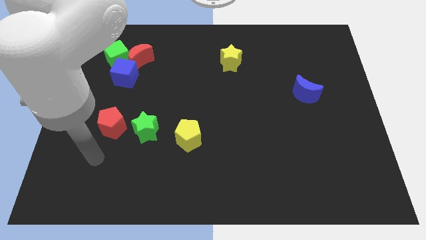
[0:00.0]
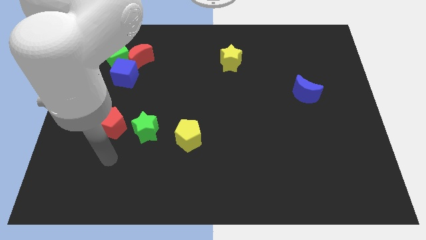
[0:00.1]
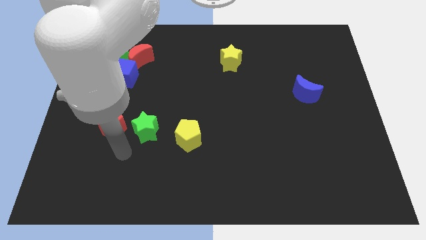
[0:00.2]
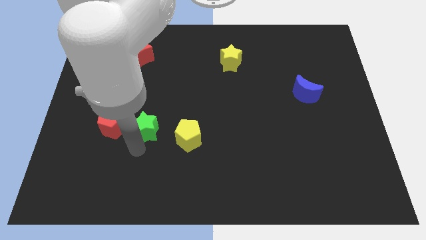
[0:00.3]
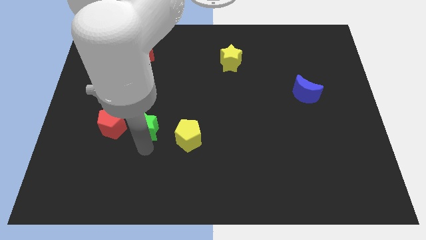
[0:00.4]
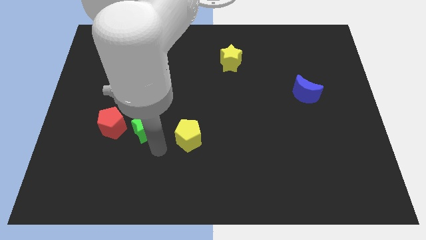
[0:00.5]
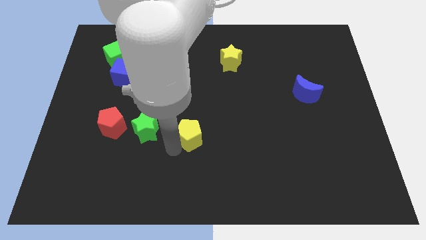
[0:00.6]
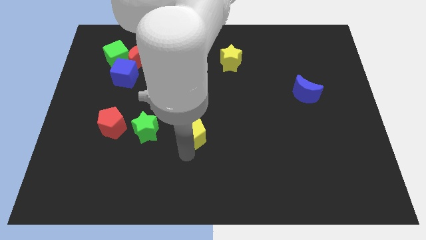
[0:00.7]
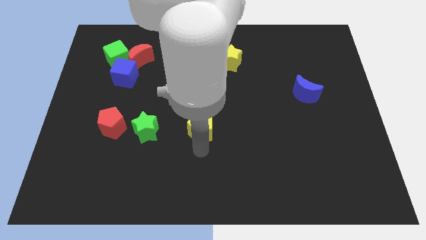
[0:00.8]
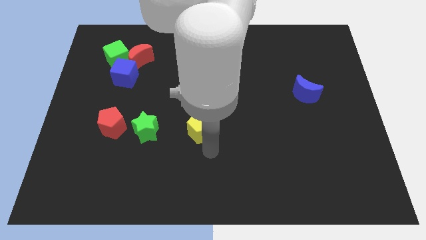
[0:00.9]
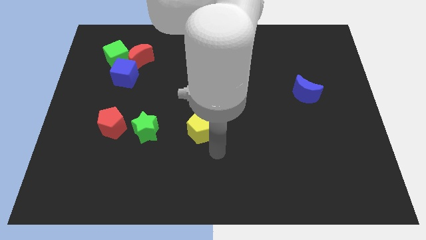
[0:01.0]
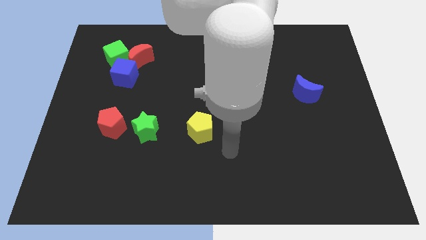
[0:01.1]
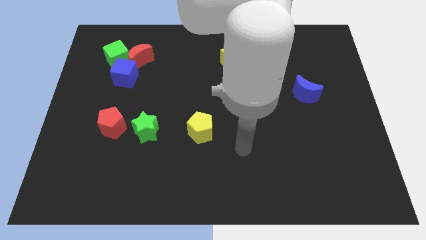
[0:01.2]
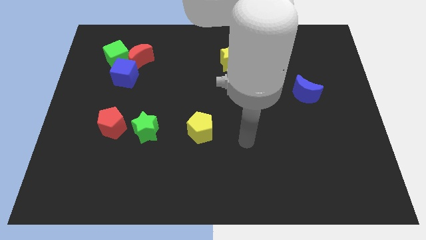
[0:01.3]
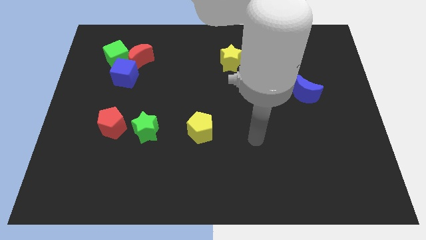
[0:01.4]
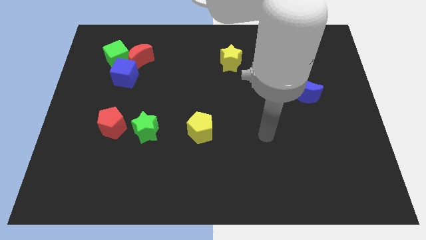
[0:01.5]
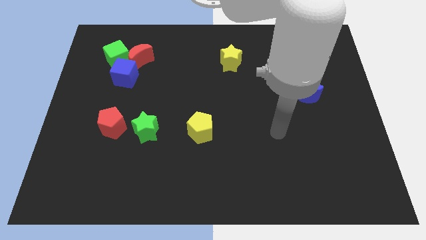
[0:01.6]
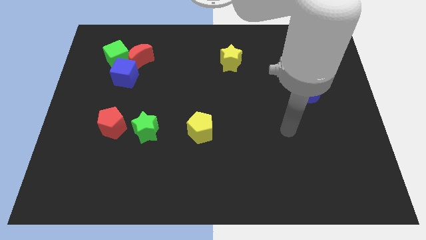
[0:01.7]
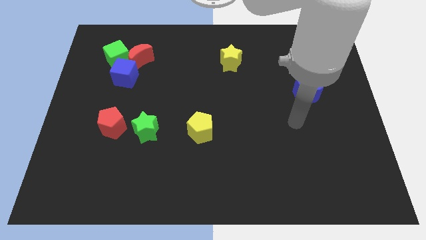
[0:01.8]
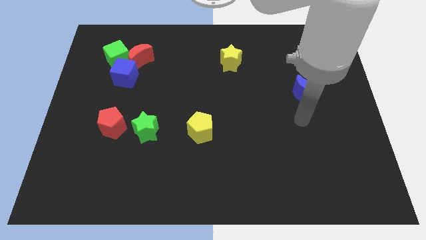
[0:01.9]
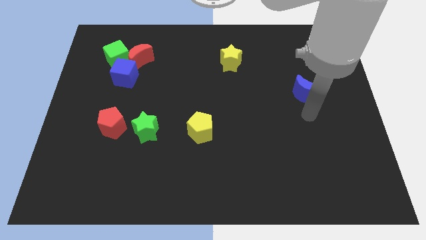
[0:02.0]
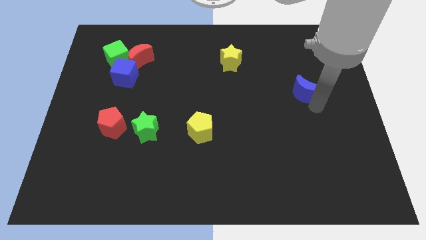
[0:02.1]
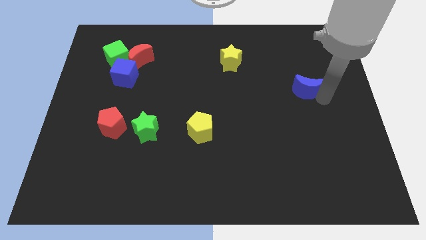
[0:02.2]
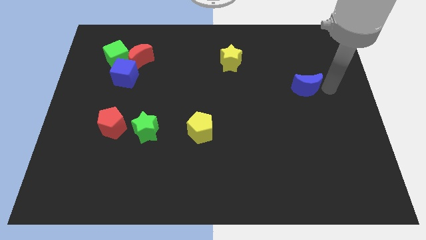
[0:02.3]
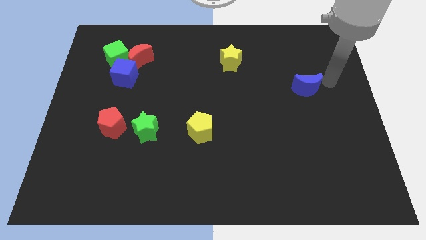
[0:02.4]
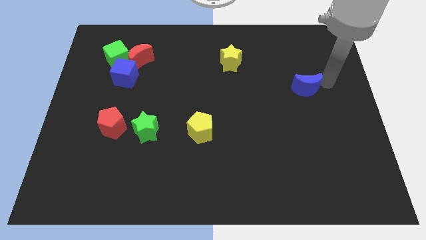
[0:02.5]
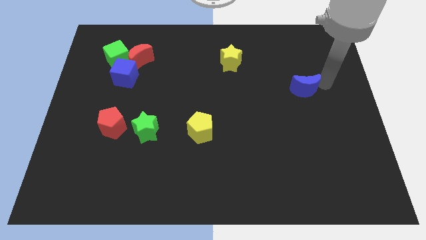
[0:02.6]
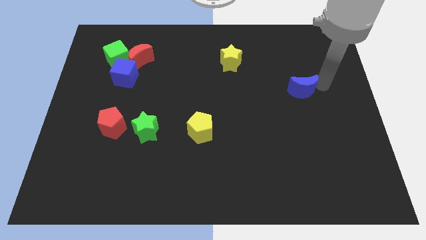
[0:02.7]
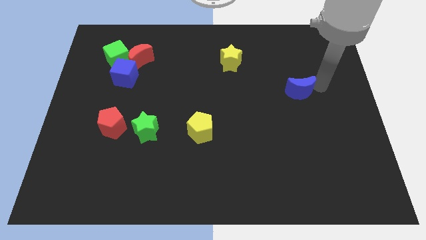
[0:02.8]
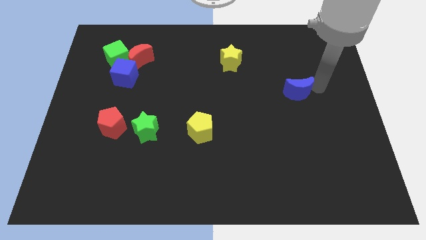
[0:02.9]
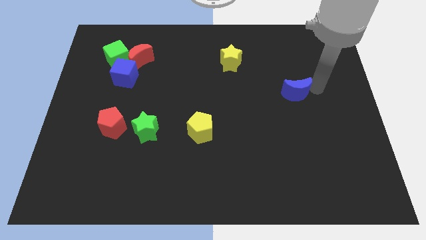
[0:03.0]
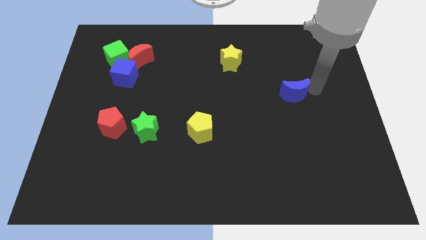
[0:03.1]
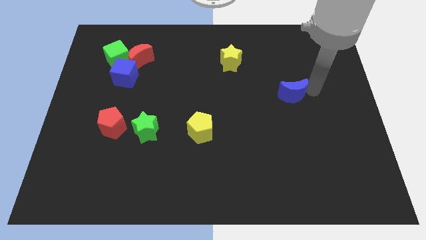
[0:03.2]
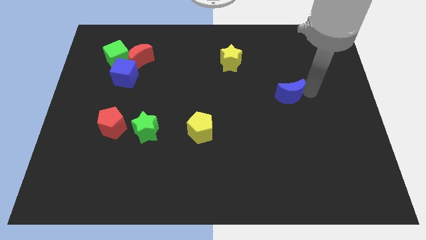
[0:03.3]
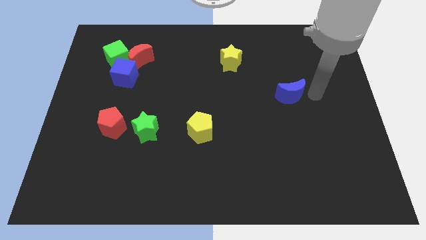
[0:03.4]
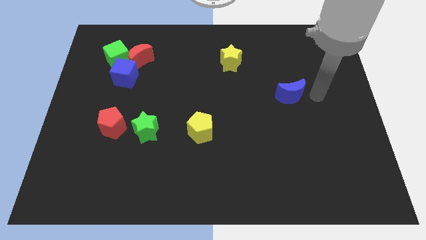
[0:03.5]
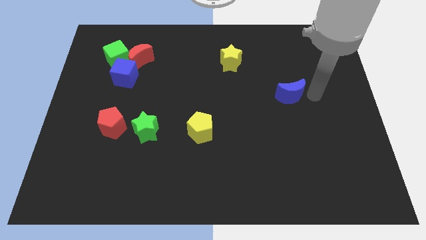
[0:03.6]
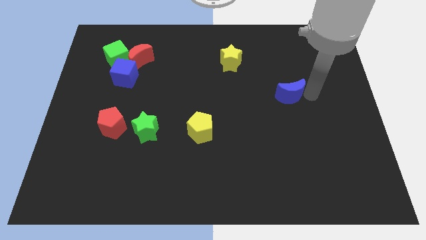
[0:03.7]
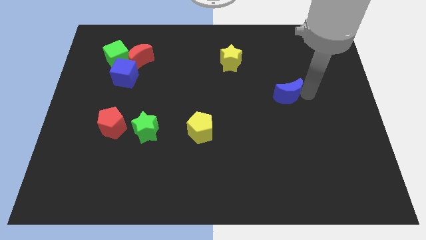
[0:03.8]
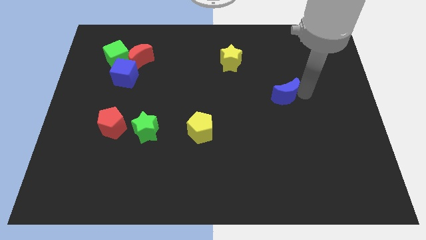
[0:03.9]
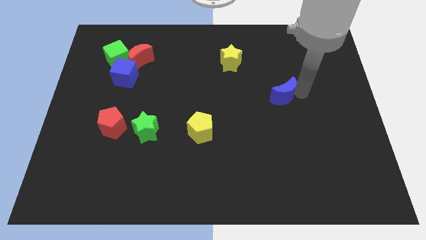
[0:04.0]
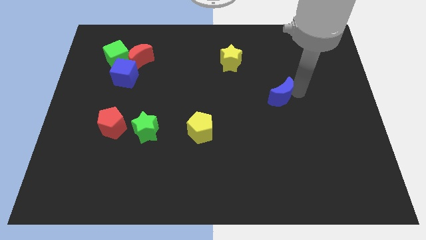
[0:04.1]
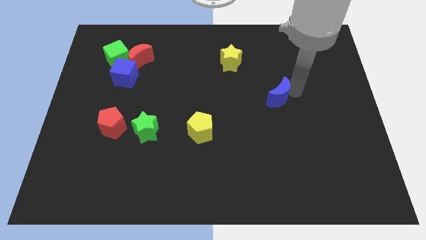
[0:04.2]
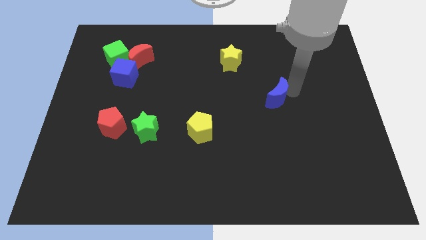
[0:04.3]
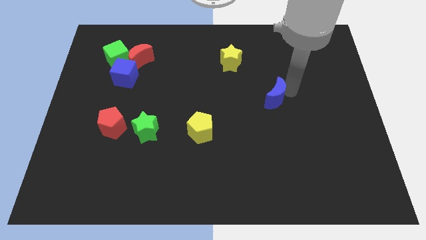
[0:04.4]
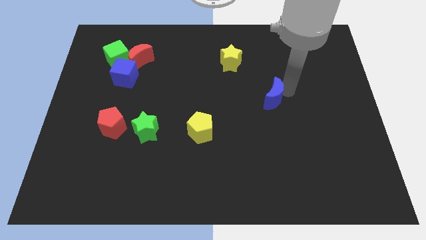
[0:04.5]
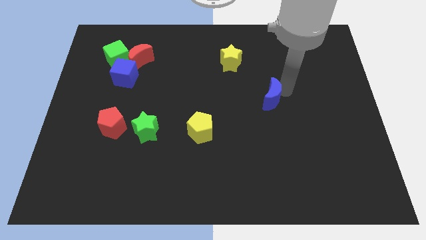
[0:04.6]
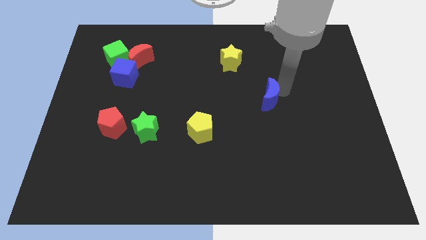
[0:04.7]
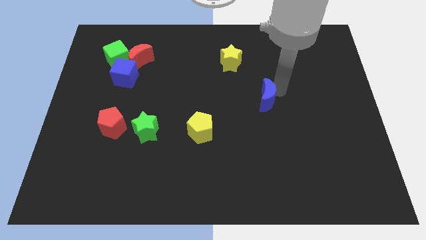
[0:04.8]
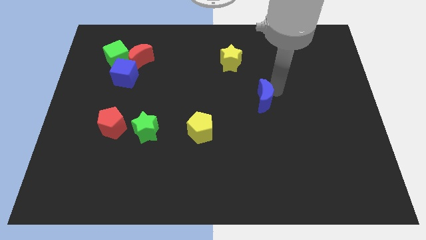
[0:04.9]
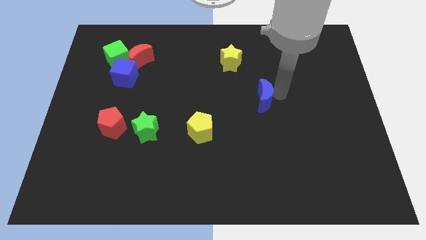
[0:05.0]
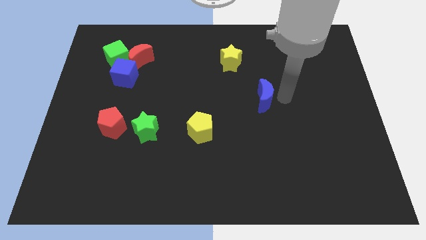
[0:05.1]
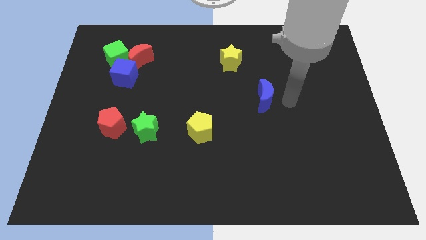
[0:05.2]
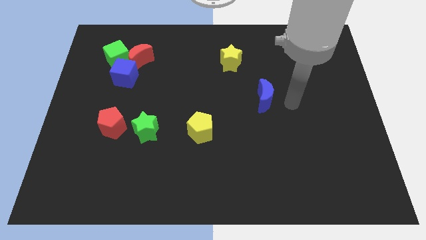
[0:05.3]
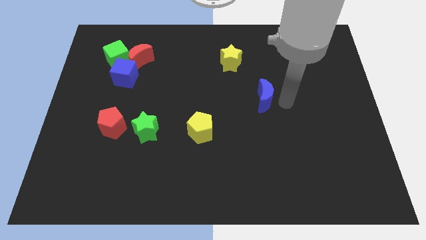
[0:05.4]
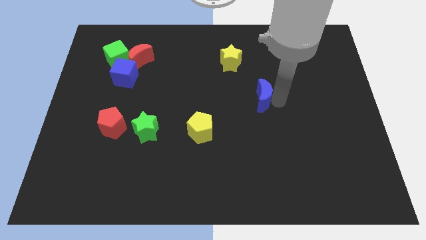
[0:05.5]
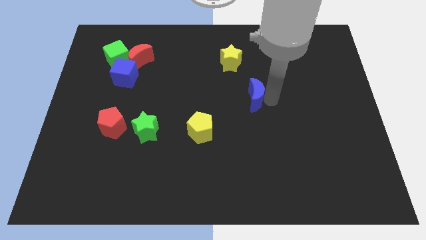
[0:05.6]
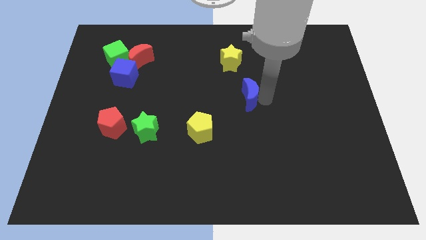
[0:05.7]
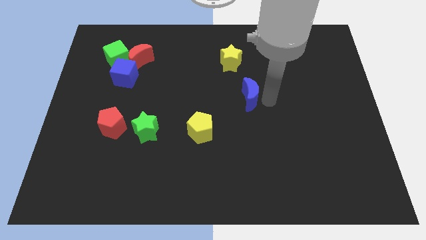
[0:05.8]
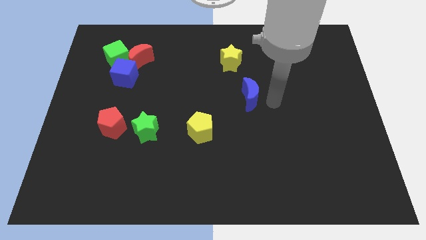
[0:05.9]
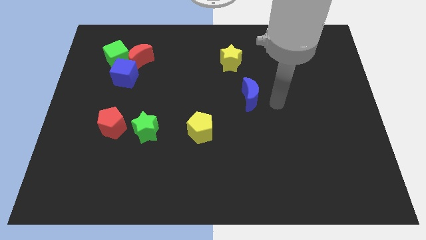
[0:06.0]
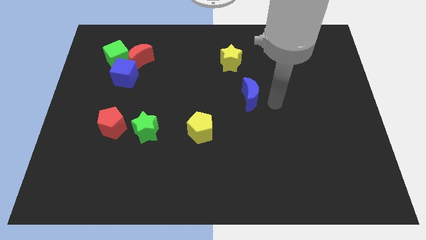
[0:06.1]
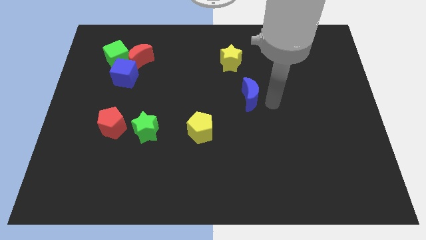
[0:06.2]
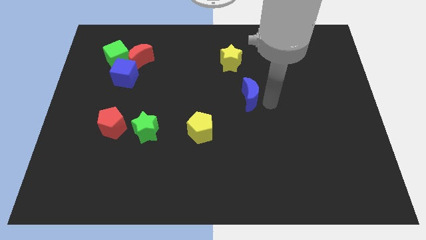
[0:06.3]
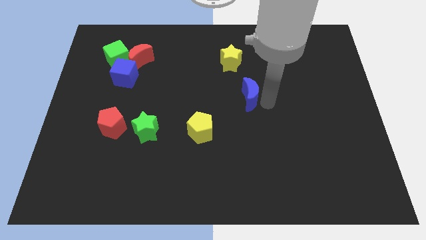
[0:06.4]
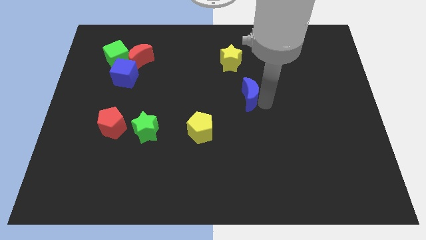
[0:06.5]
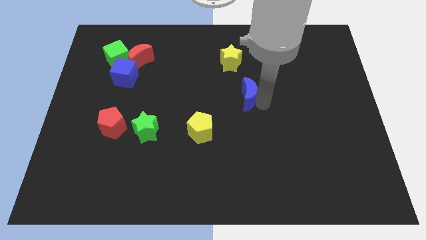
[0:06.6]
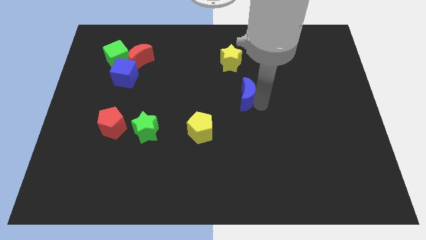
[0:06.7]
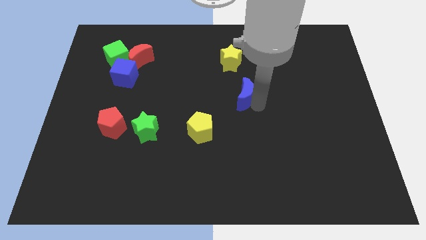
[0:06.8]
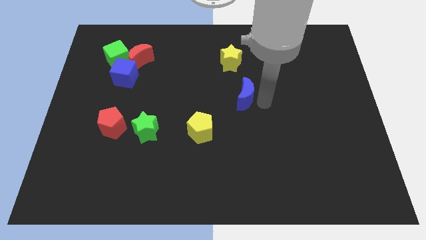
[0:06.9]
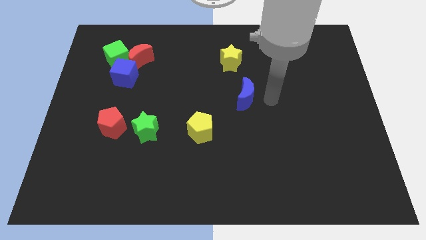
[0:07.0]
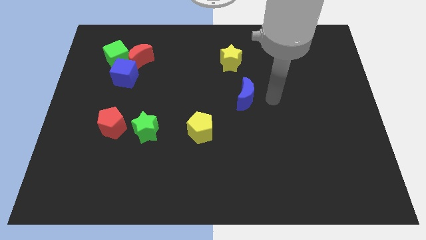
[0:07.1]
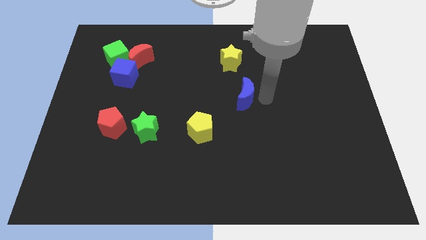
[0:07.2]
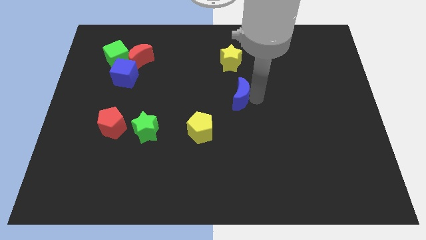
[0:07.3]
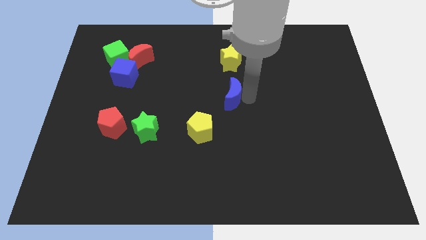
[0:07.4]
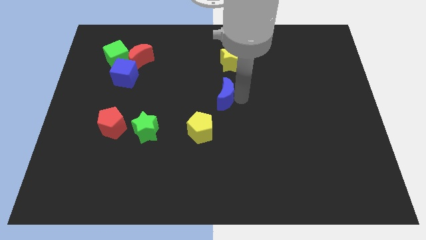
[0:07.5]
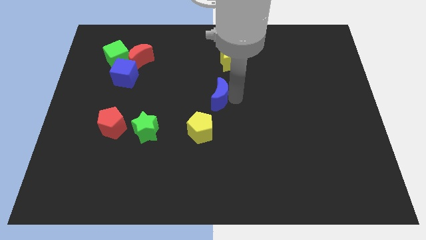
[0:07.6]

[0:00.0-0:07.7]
push the blue moon to the top of the yellow pentagon
